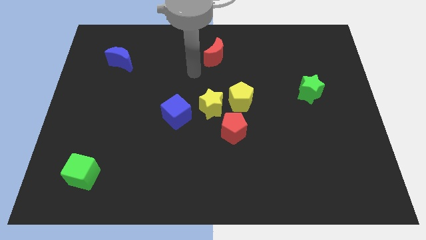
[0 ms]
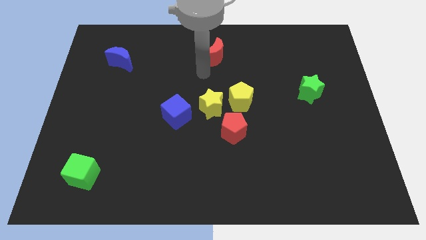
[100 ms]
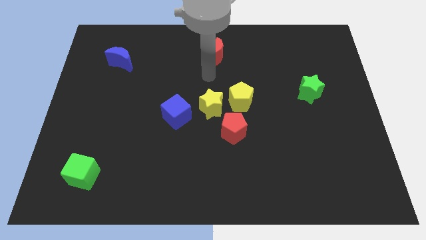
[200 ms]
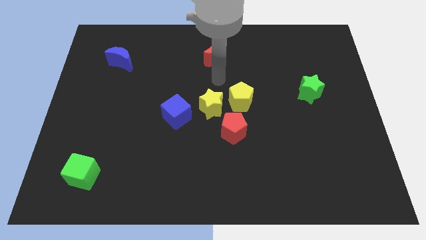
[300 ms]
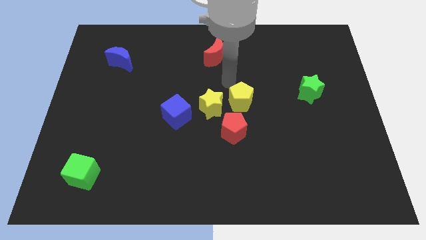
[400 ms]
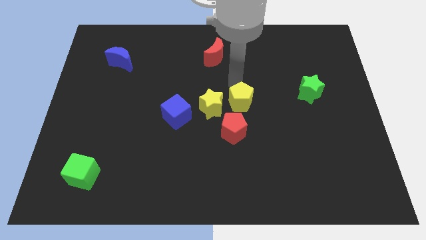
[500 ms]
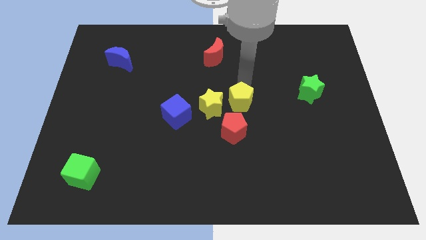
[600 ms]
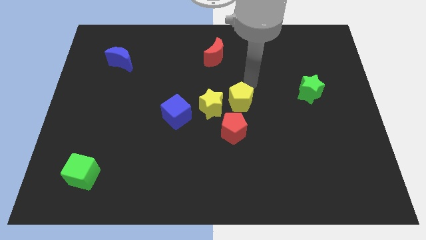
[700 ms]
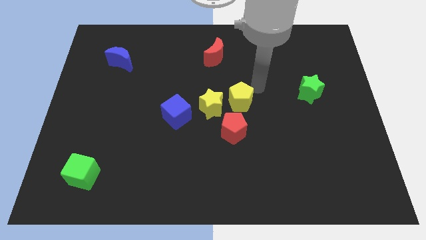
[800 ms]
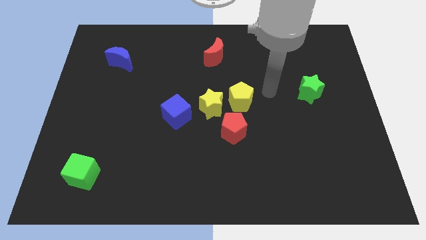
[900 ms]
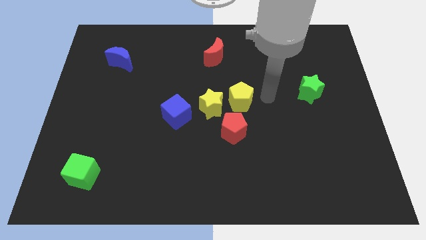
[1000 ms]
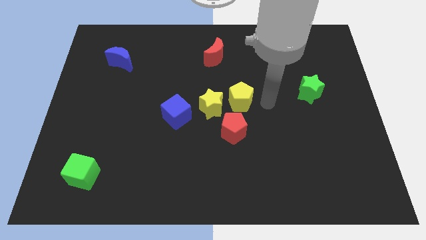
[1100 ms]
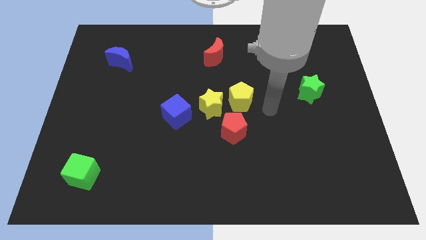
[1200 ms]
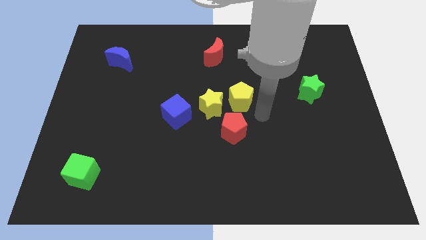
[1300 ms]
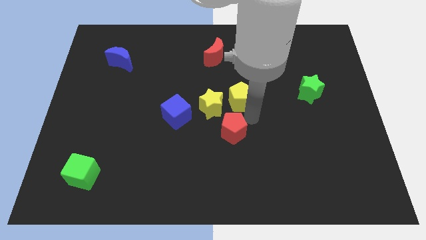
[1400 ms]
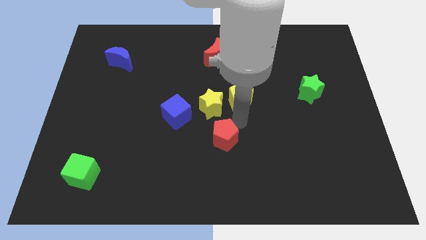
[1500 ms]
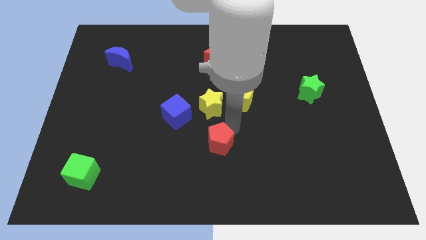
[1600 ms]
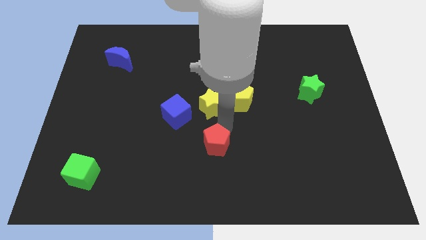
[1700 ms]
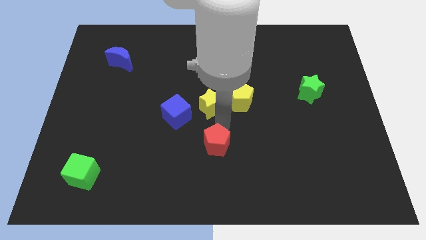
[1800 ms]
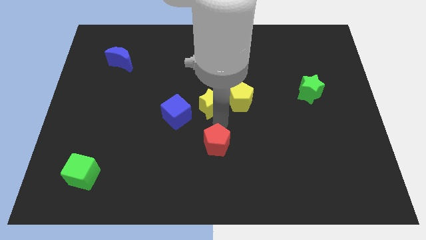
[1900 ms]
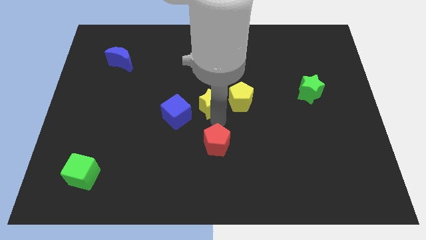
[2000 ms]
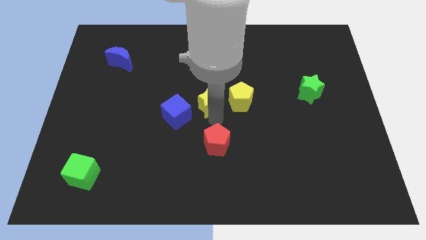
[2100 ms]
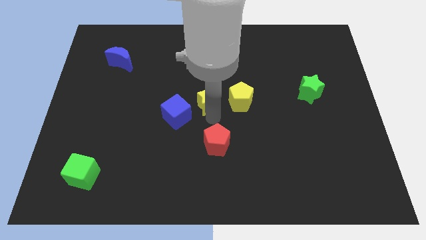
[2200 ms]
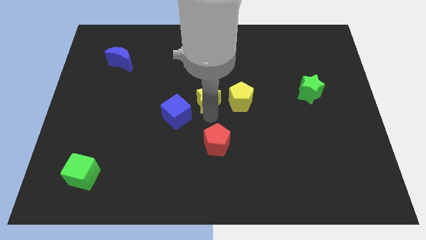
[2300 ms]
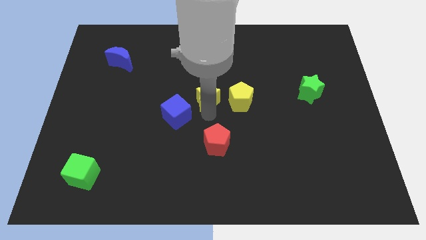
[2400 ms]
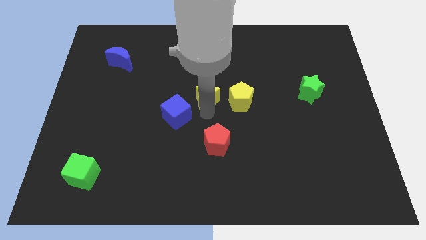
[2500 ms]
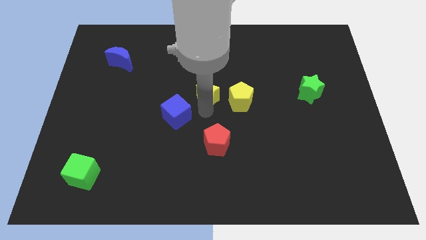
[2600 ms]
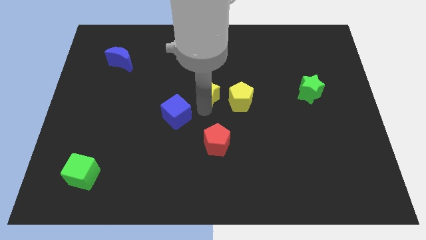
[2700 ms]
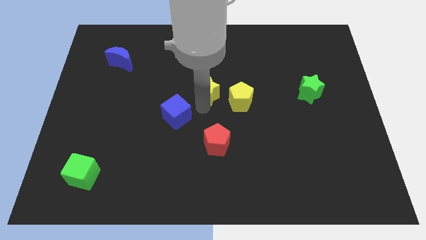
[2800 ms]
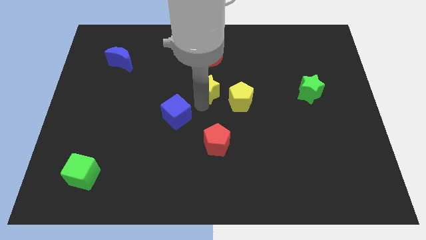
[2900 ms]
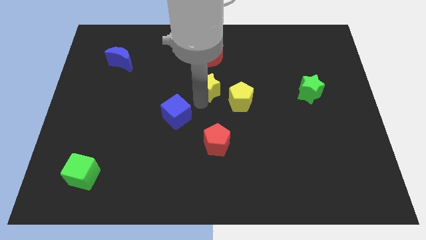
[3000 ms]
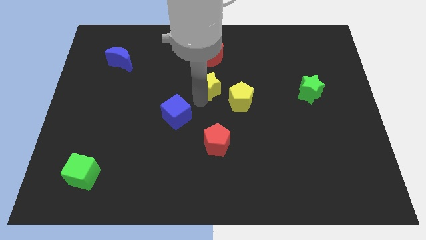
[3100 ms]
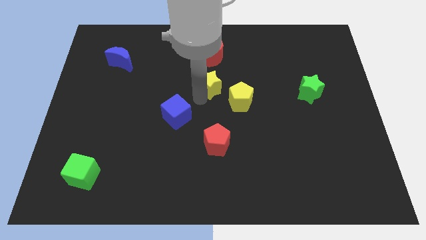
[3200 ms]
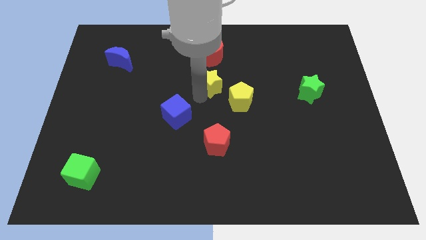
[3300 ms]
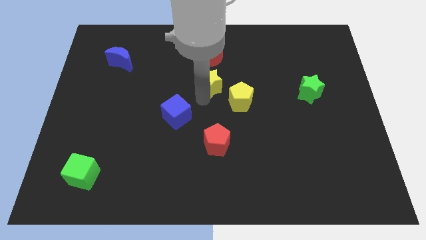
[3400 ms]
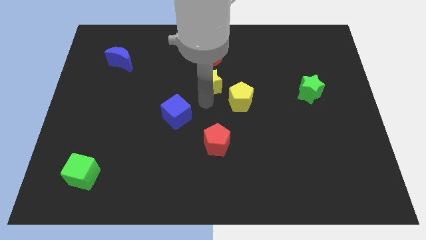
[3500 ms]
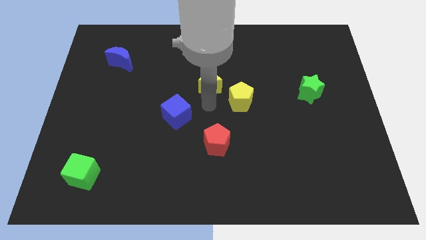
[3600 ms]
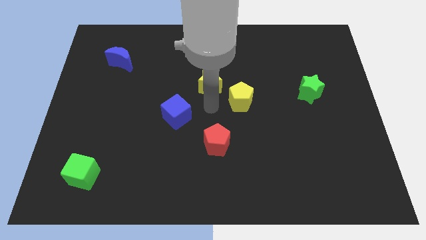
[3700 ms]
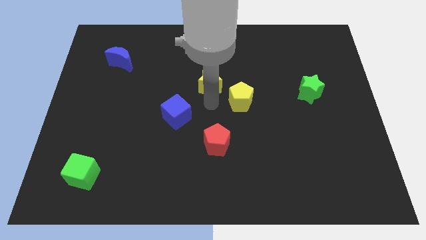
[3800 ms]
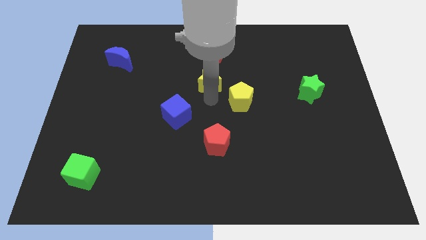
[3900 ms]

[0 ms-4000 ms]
move the yellow star away from the yellow pentagon, red pentagon, and blue cube

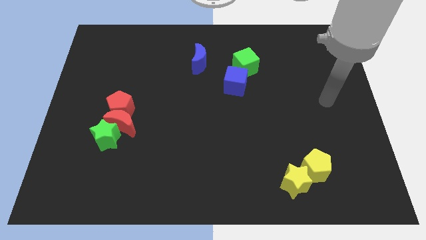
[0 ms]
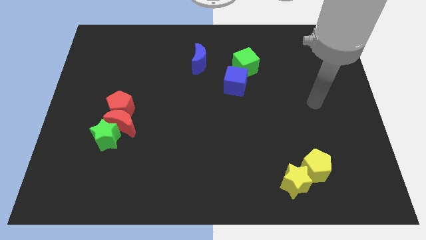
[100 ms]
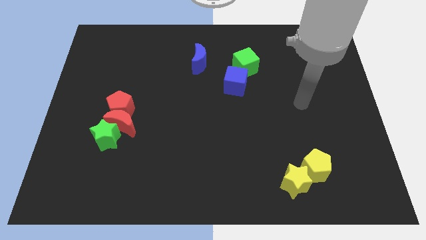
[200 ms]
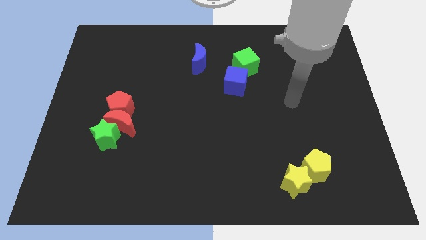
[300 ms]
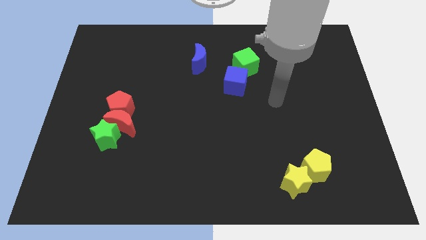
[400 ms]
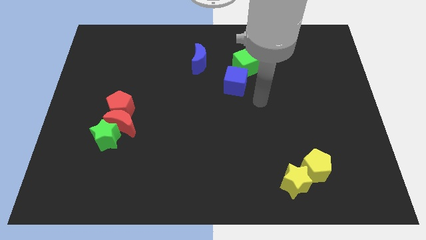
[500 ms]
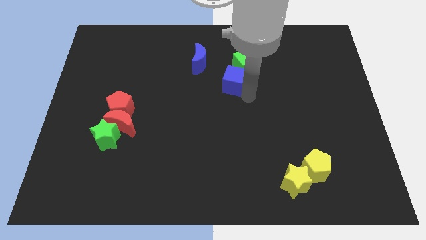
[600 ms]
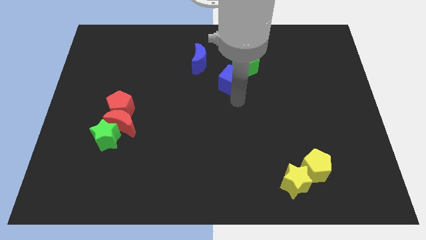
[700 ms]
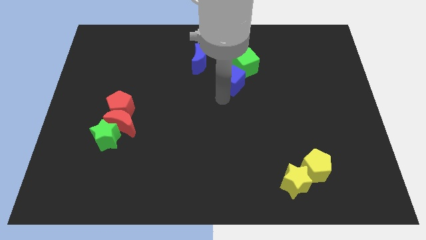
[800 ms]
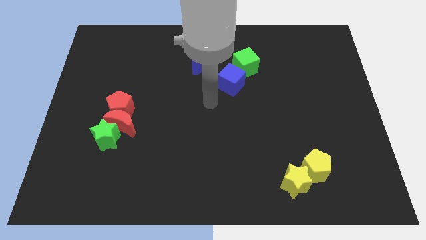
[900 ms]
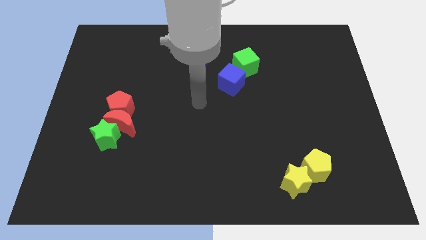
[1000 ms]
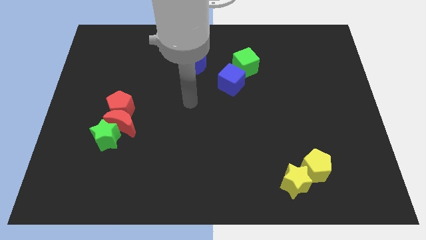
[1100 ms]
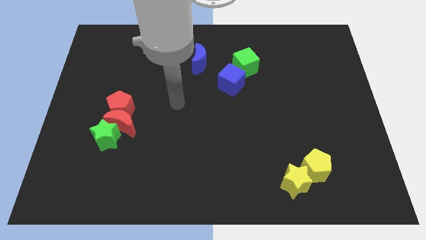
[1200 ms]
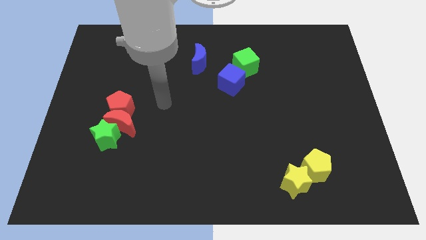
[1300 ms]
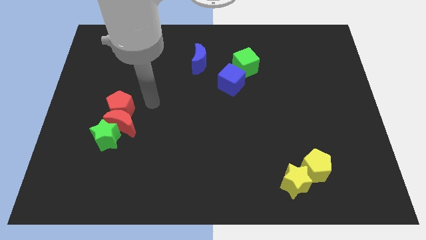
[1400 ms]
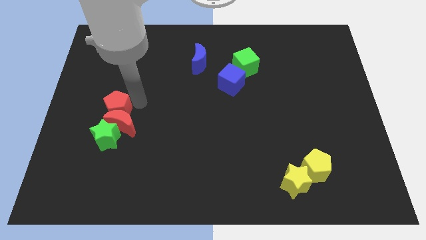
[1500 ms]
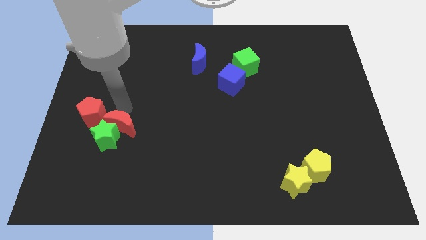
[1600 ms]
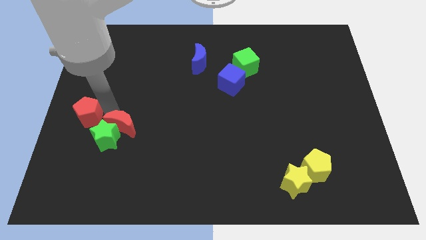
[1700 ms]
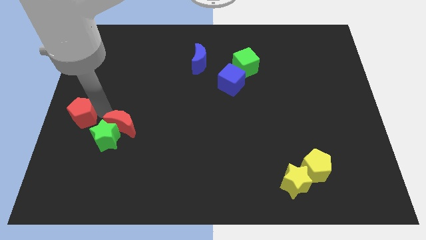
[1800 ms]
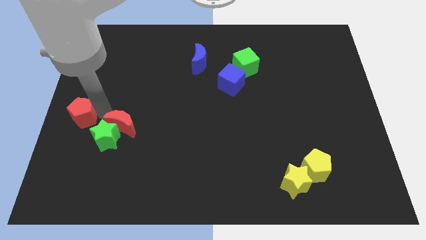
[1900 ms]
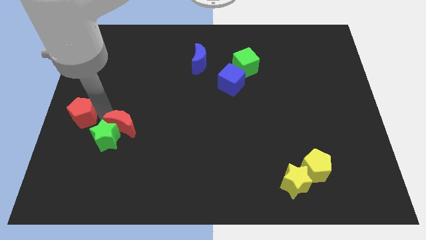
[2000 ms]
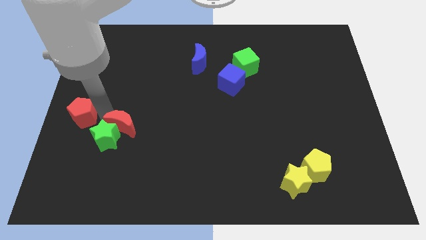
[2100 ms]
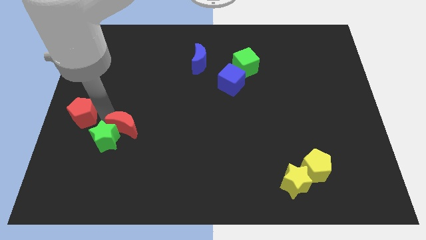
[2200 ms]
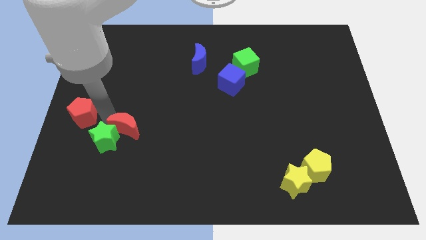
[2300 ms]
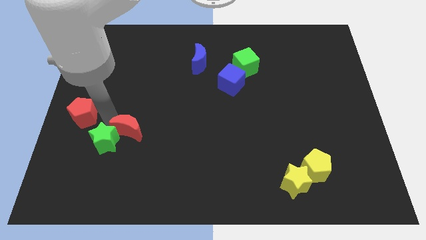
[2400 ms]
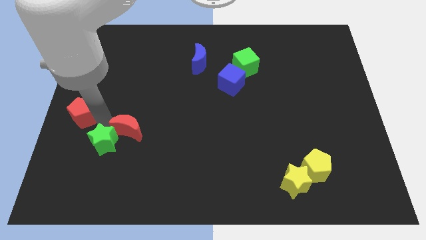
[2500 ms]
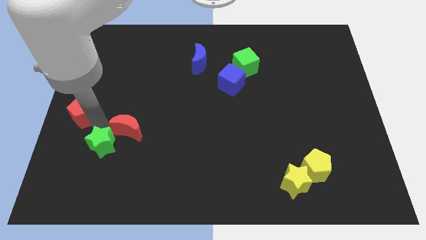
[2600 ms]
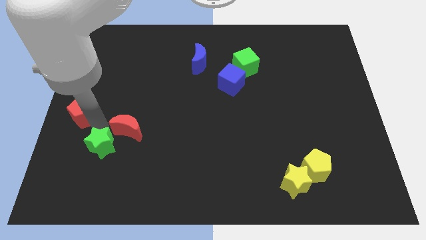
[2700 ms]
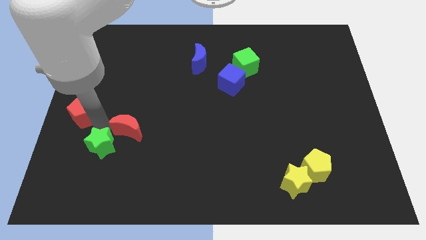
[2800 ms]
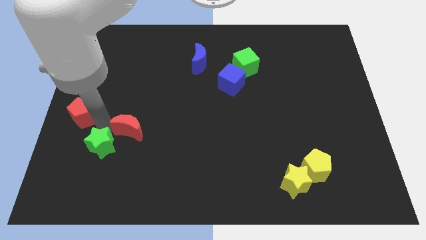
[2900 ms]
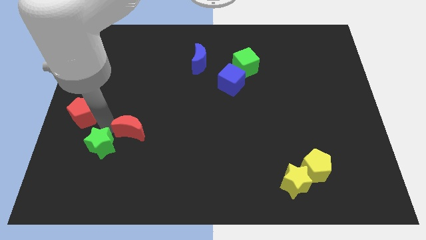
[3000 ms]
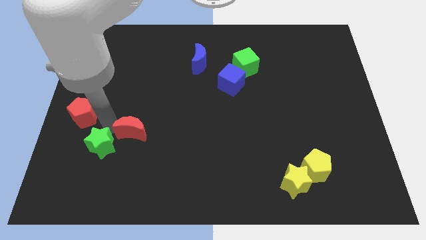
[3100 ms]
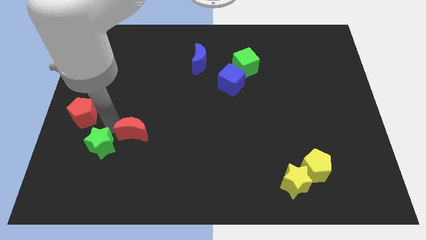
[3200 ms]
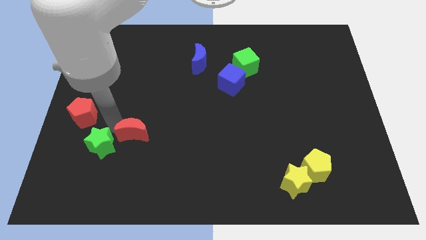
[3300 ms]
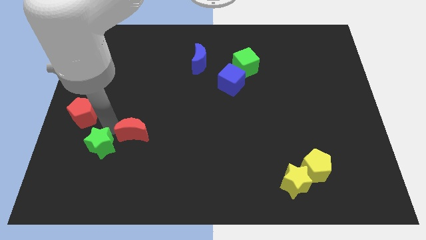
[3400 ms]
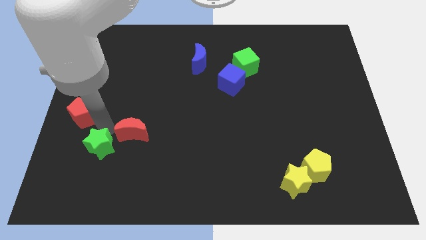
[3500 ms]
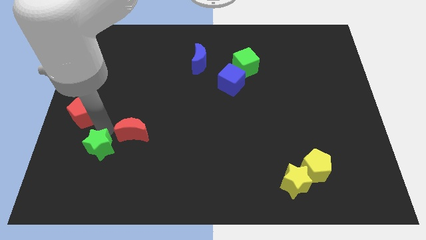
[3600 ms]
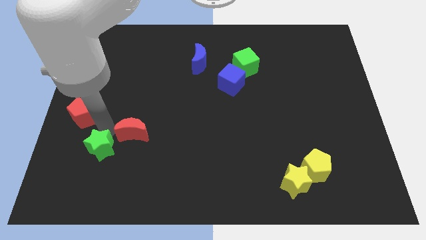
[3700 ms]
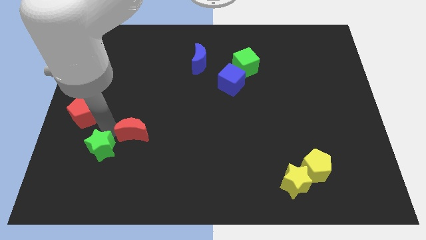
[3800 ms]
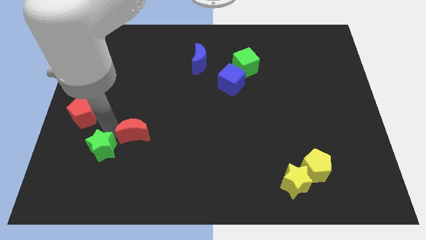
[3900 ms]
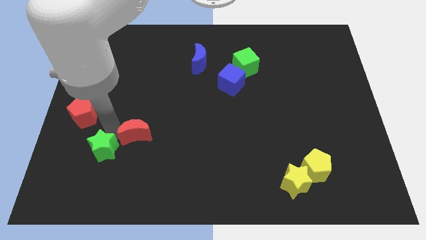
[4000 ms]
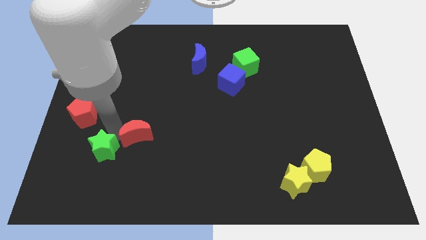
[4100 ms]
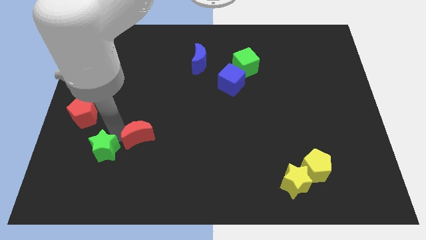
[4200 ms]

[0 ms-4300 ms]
move the red moon away from the green star and red pentagon

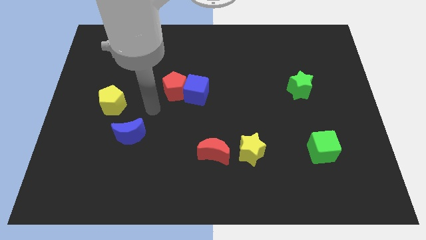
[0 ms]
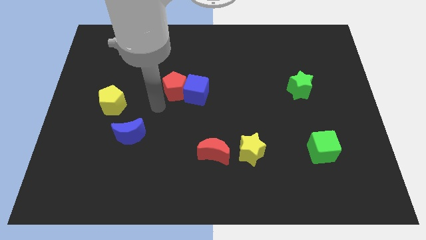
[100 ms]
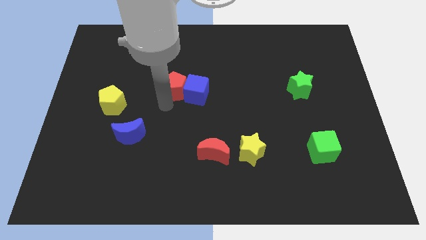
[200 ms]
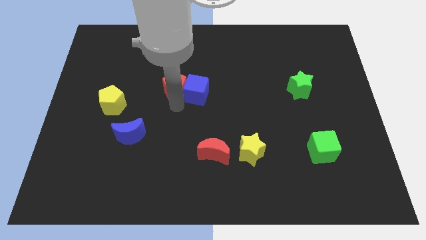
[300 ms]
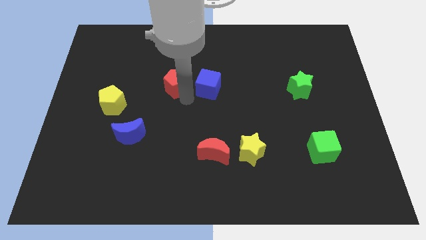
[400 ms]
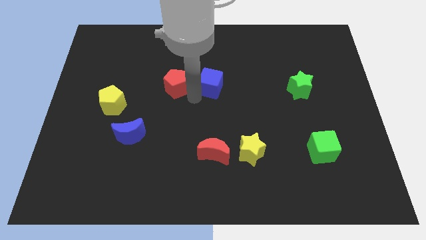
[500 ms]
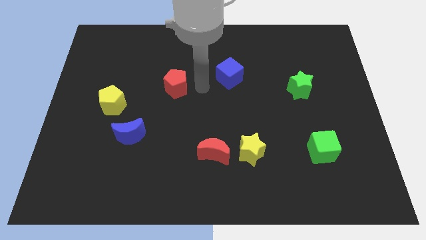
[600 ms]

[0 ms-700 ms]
separate the red pentagon from the blue cube

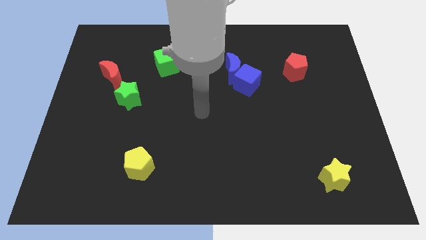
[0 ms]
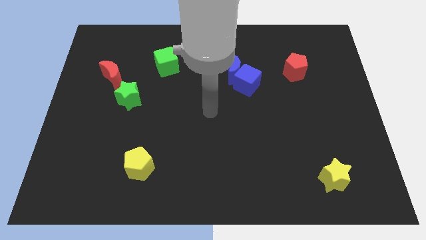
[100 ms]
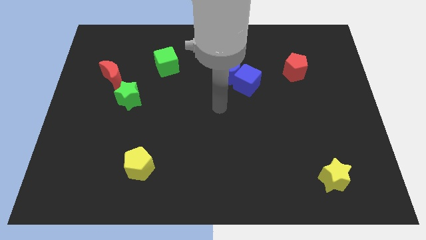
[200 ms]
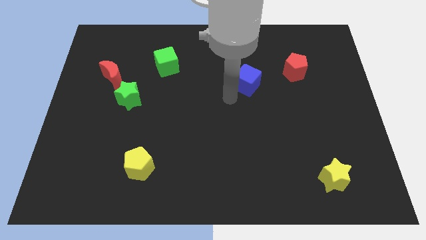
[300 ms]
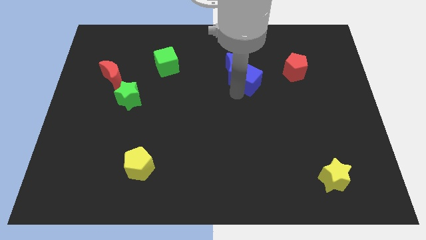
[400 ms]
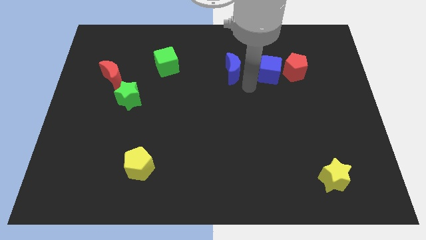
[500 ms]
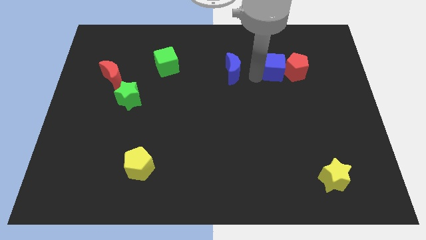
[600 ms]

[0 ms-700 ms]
move the blue moon away from the blue cube
